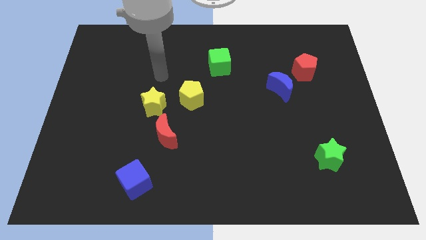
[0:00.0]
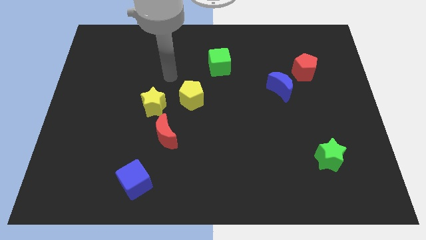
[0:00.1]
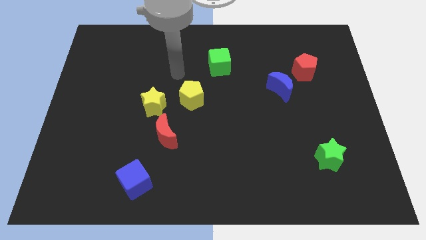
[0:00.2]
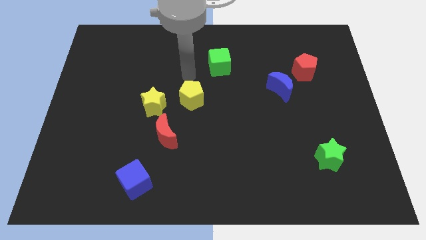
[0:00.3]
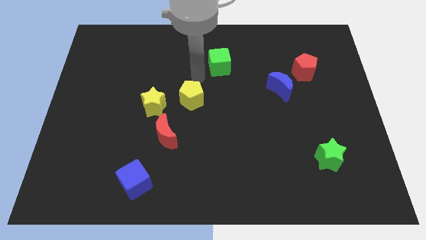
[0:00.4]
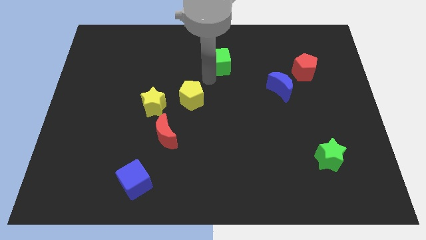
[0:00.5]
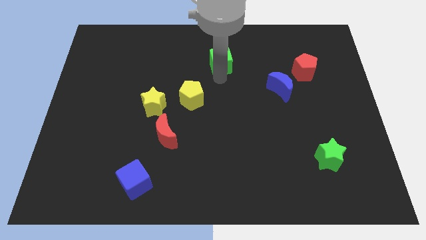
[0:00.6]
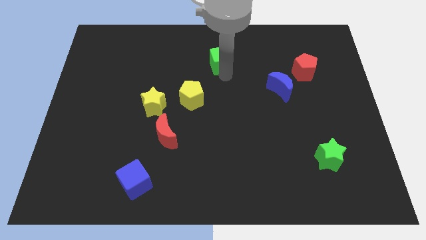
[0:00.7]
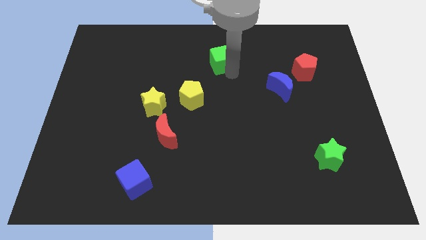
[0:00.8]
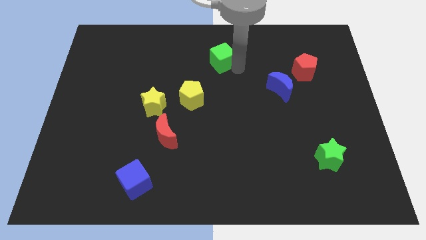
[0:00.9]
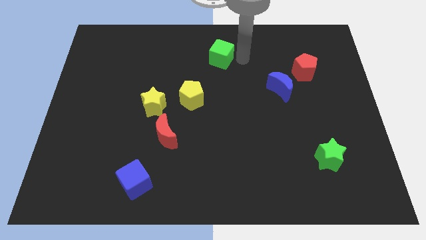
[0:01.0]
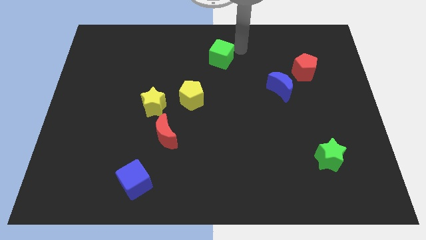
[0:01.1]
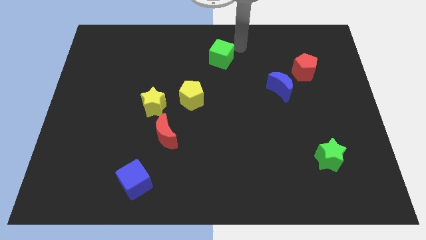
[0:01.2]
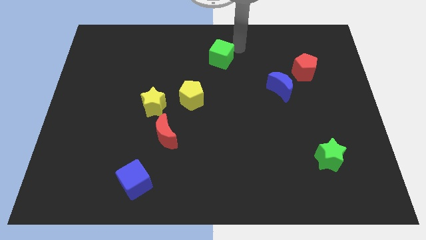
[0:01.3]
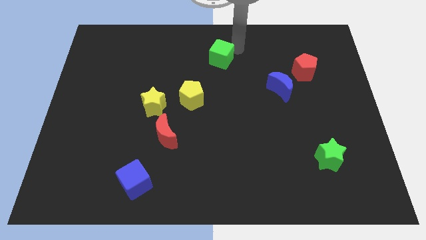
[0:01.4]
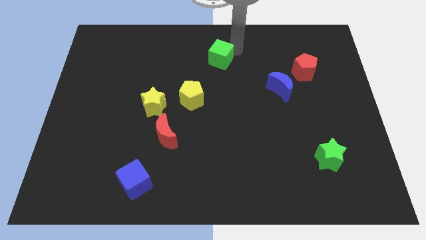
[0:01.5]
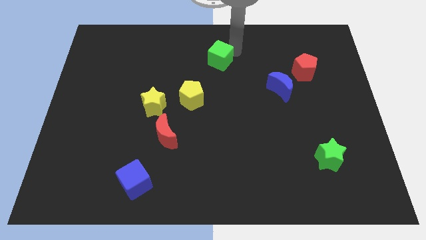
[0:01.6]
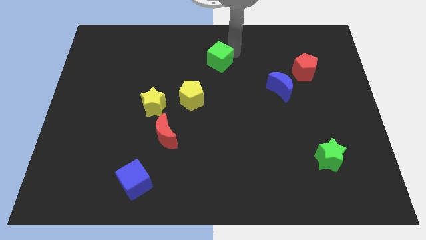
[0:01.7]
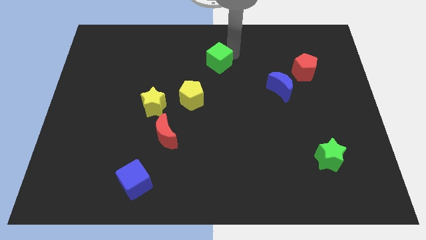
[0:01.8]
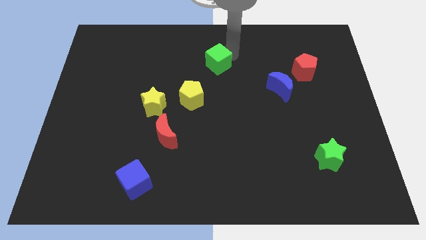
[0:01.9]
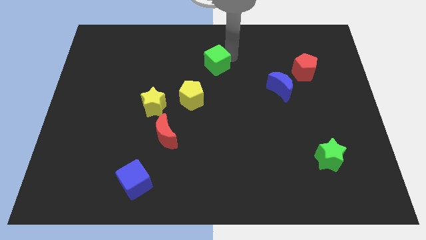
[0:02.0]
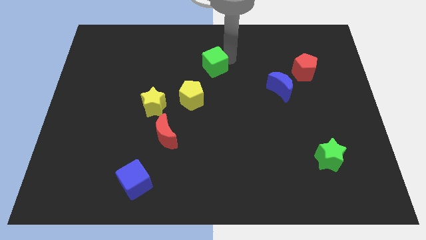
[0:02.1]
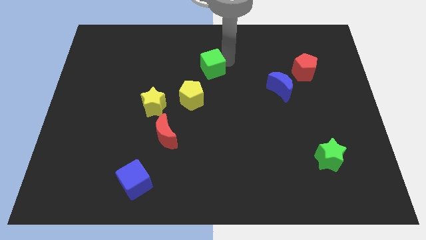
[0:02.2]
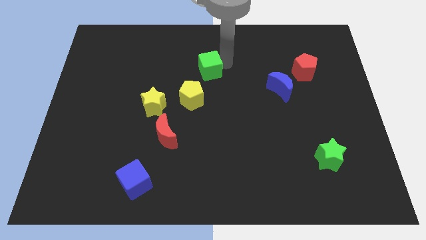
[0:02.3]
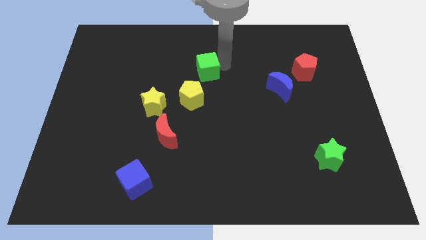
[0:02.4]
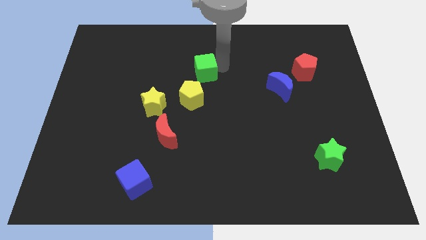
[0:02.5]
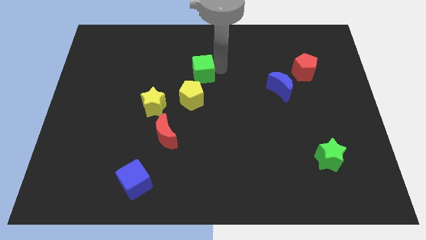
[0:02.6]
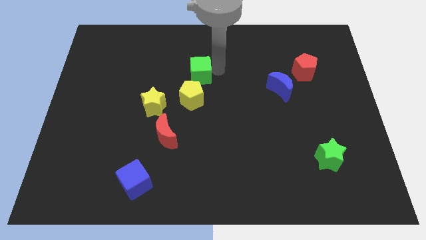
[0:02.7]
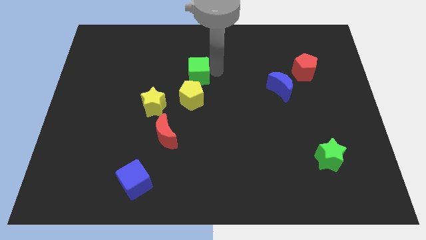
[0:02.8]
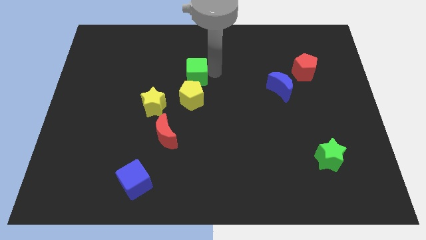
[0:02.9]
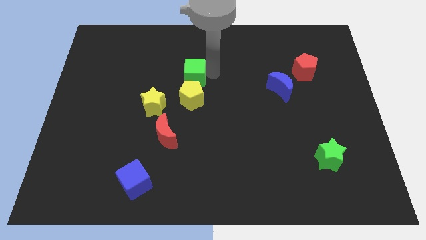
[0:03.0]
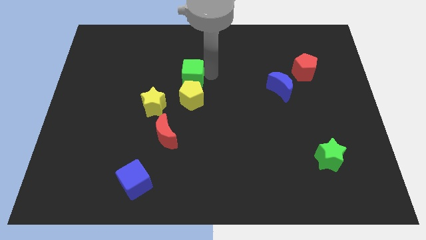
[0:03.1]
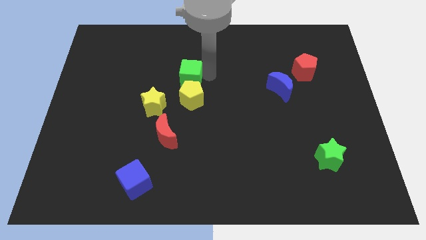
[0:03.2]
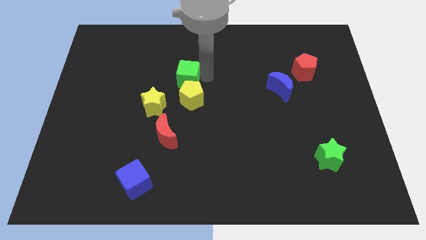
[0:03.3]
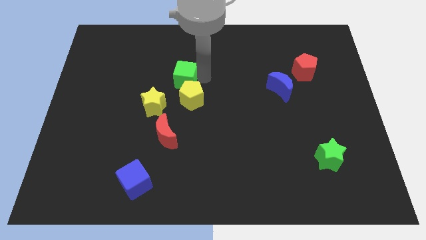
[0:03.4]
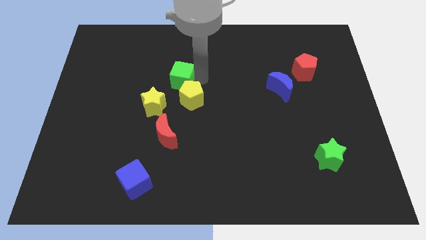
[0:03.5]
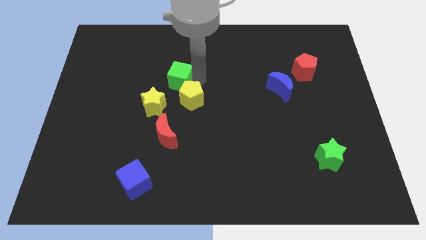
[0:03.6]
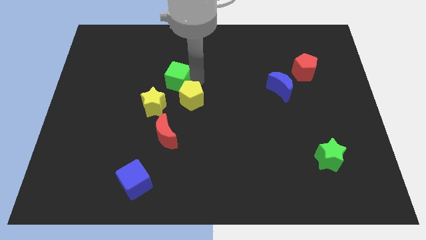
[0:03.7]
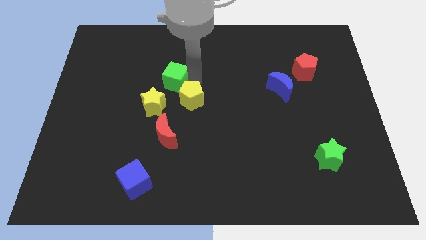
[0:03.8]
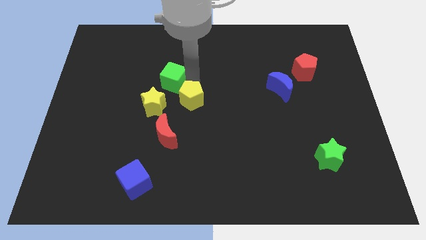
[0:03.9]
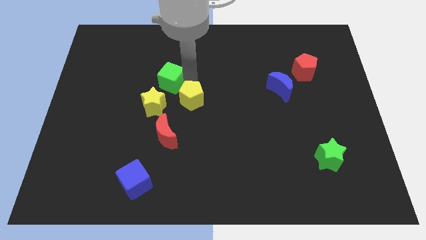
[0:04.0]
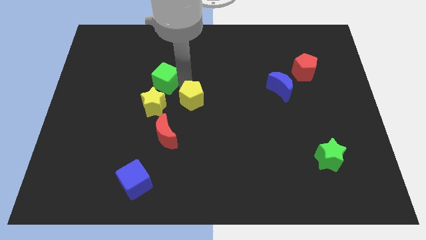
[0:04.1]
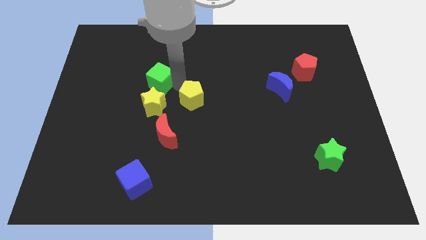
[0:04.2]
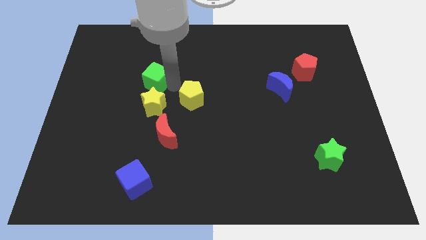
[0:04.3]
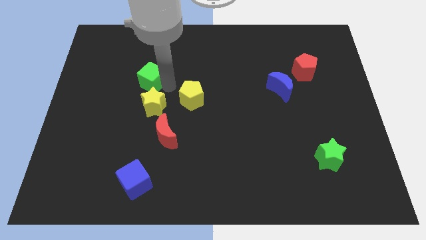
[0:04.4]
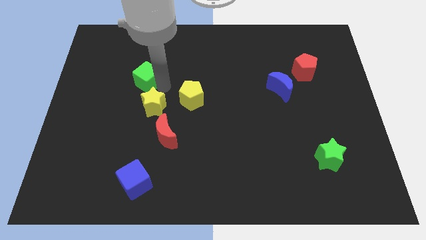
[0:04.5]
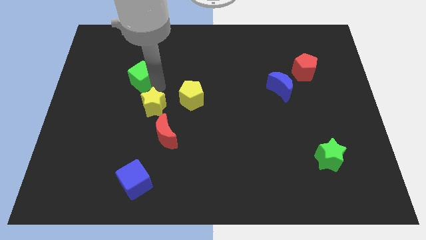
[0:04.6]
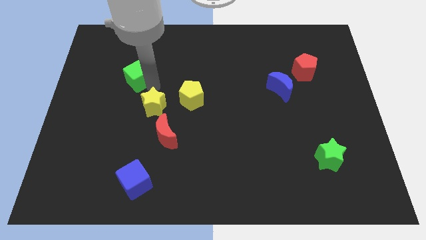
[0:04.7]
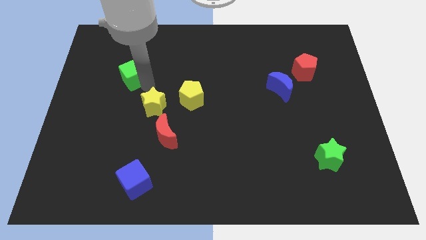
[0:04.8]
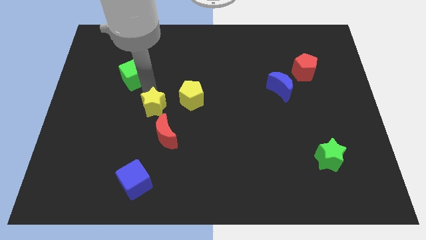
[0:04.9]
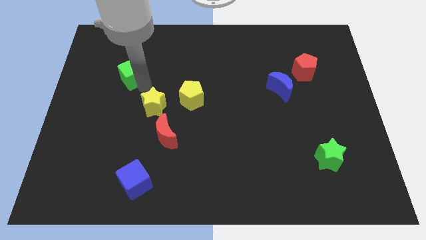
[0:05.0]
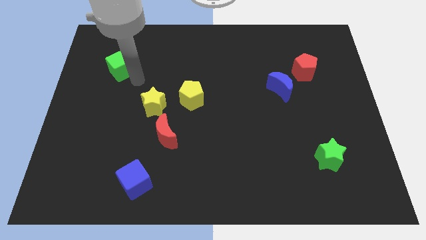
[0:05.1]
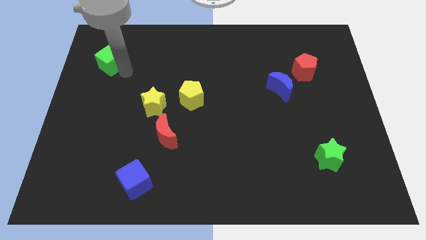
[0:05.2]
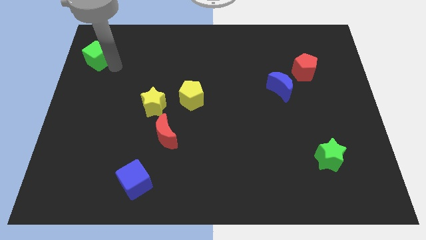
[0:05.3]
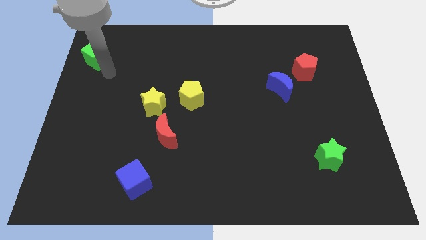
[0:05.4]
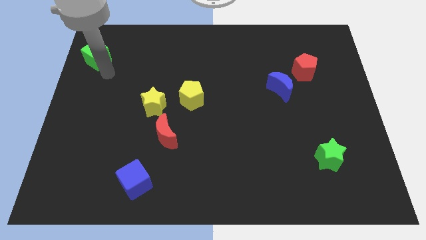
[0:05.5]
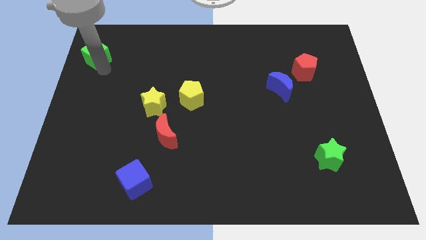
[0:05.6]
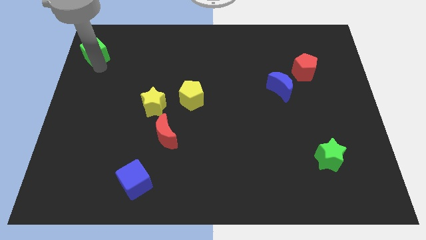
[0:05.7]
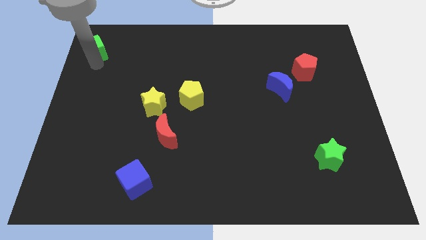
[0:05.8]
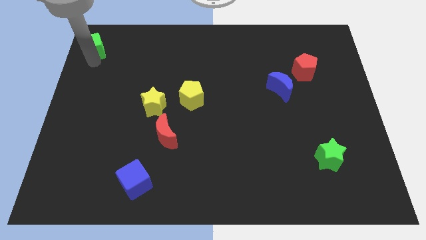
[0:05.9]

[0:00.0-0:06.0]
move the green cube to the top left of the board

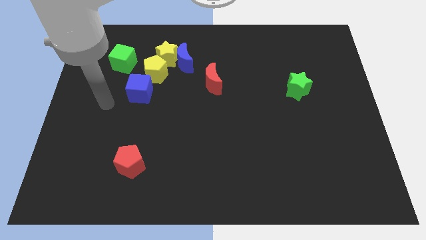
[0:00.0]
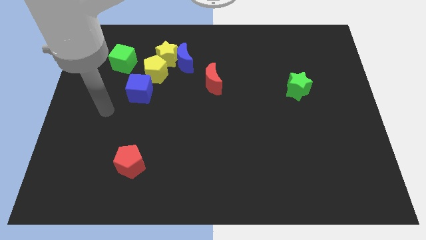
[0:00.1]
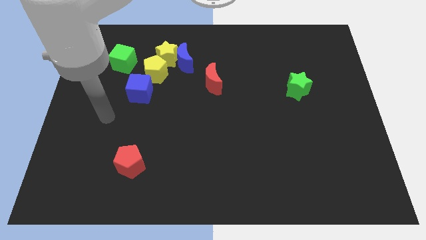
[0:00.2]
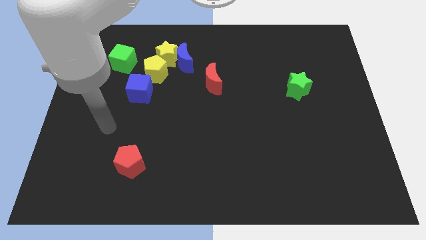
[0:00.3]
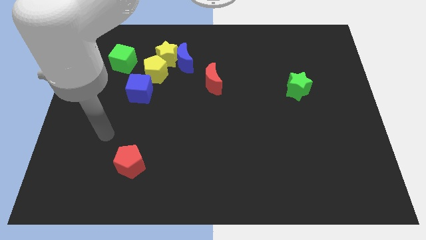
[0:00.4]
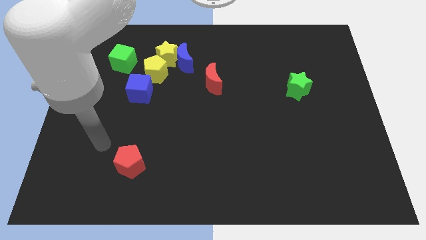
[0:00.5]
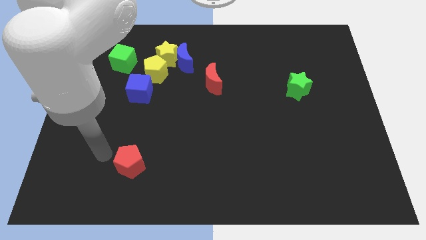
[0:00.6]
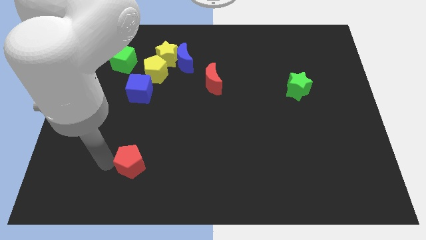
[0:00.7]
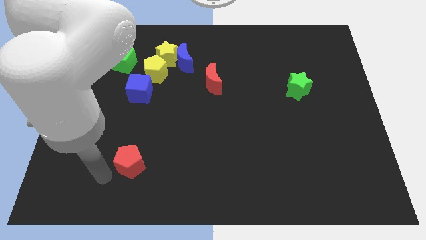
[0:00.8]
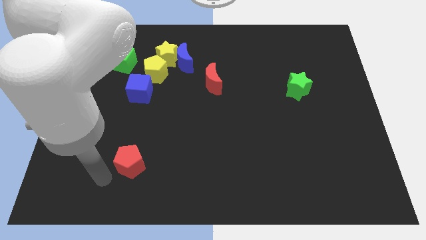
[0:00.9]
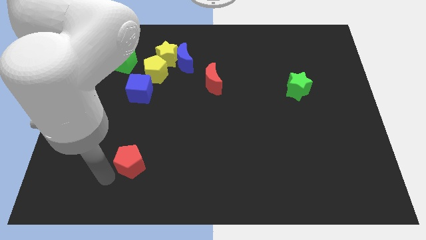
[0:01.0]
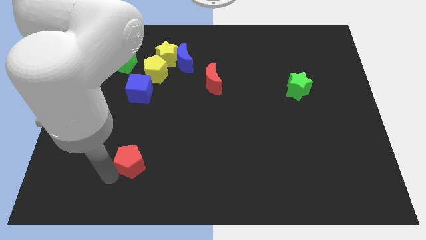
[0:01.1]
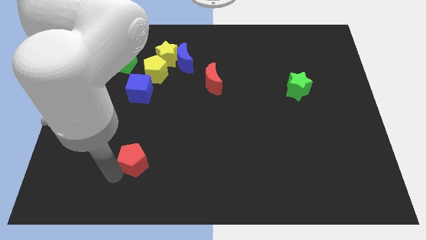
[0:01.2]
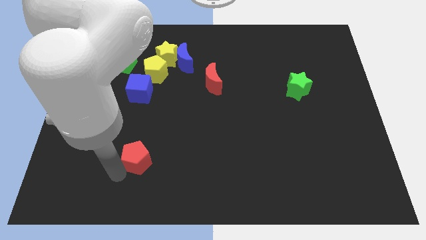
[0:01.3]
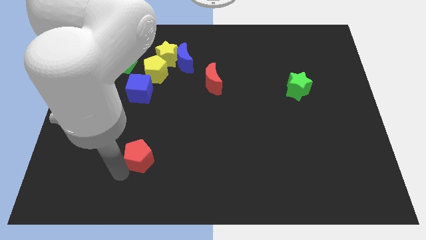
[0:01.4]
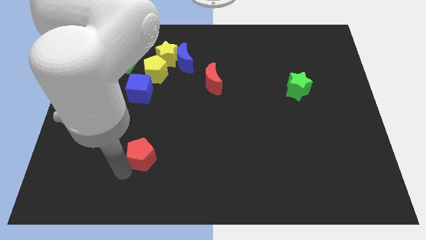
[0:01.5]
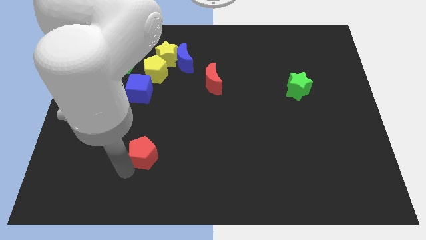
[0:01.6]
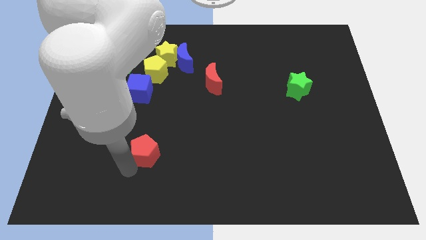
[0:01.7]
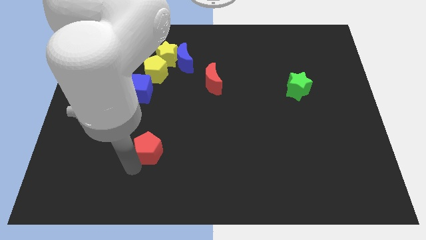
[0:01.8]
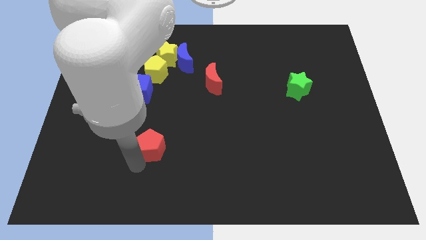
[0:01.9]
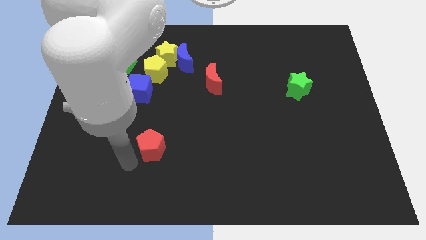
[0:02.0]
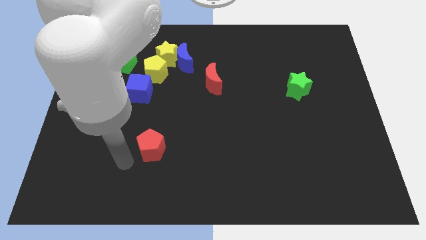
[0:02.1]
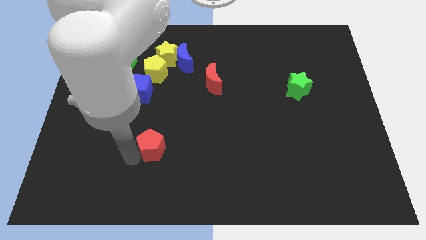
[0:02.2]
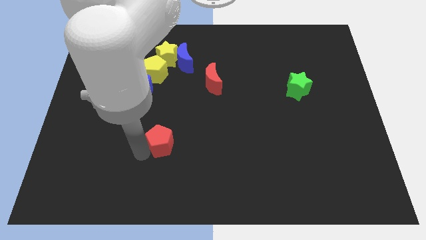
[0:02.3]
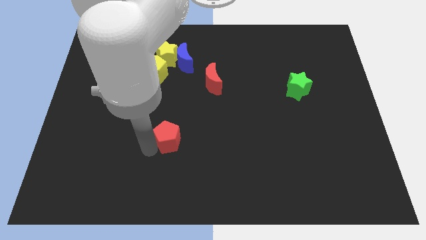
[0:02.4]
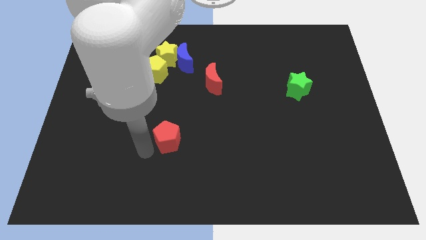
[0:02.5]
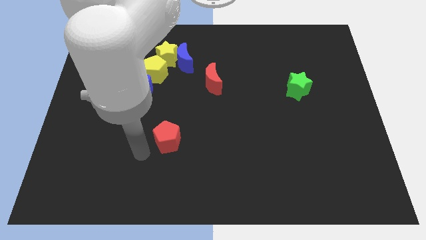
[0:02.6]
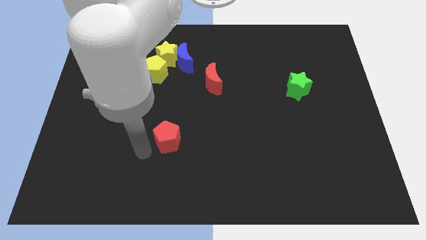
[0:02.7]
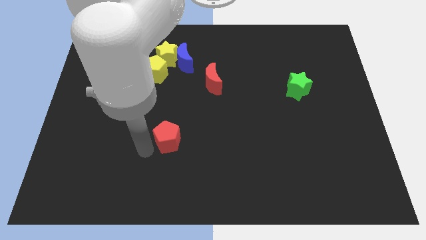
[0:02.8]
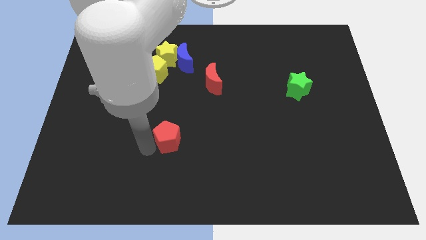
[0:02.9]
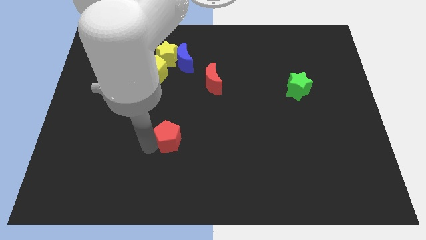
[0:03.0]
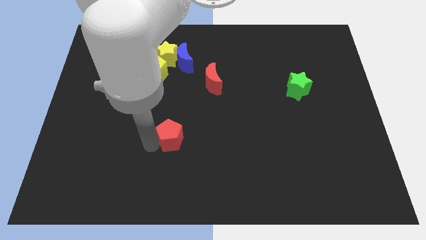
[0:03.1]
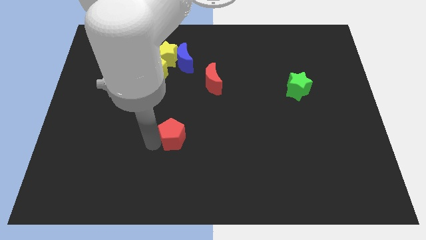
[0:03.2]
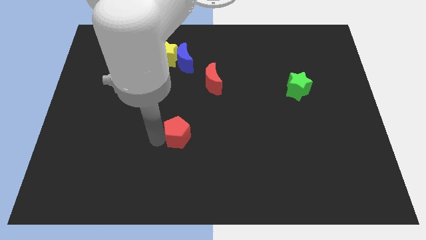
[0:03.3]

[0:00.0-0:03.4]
push the red pentagon to the middle
